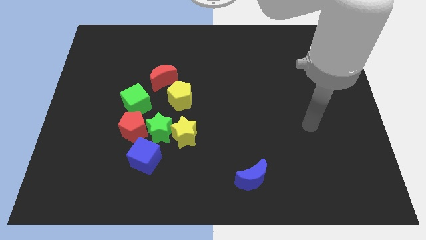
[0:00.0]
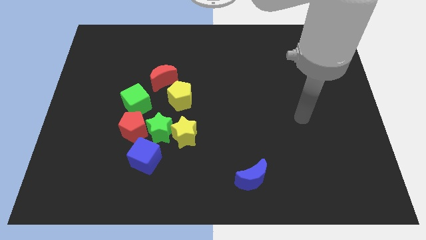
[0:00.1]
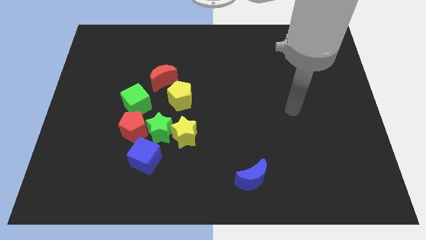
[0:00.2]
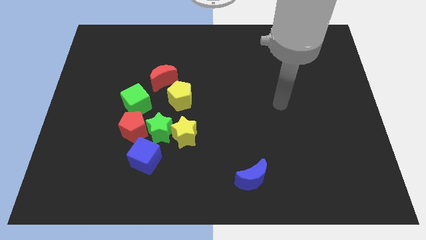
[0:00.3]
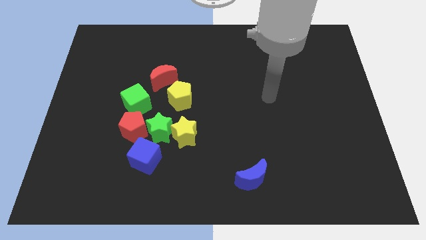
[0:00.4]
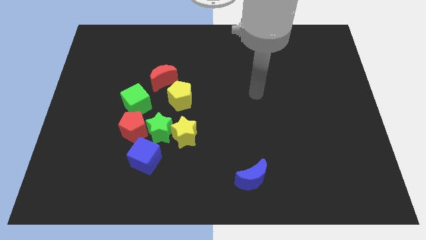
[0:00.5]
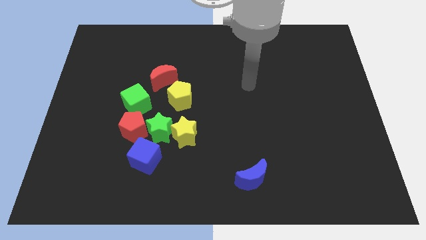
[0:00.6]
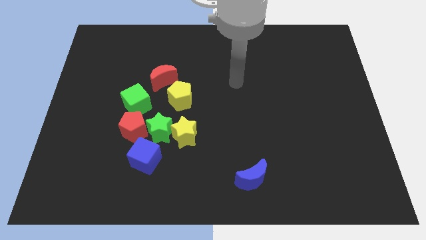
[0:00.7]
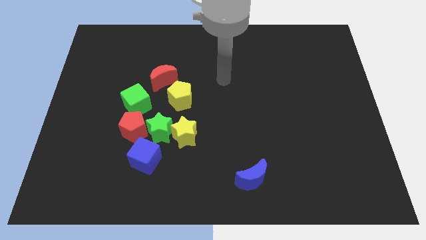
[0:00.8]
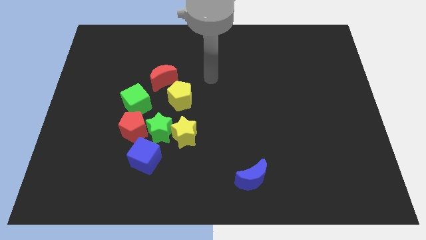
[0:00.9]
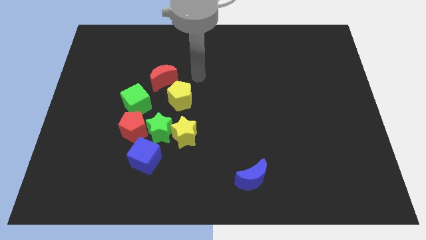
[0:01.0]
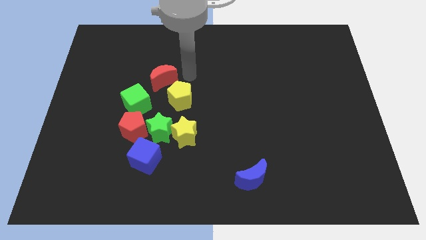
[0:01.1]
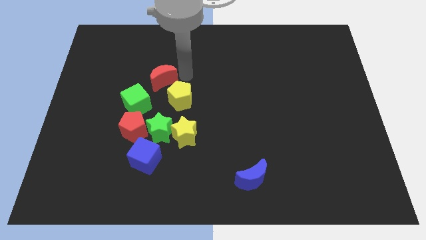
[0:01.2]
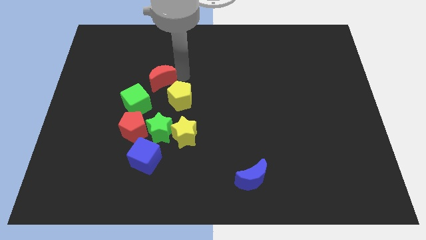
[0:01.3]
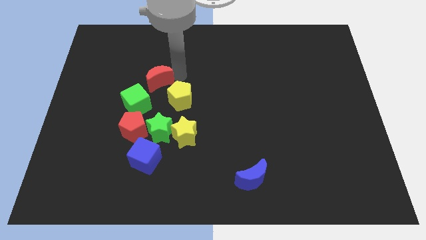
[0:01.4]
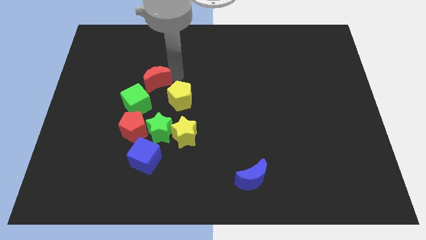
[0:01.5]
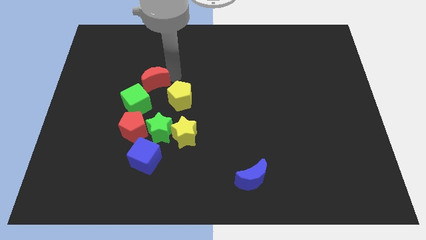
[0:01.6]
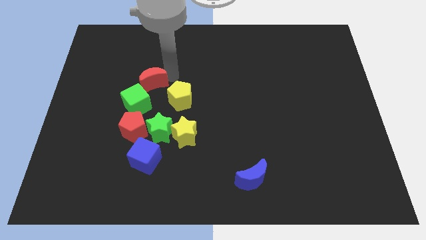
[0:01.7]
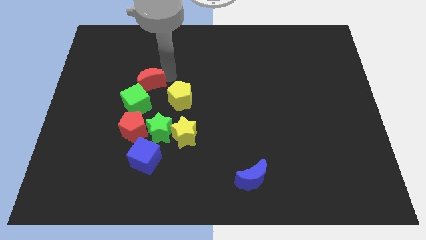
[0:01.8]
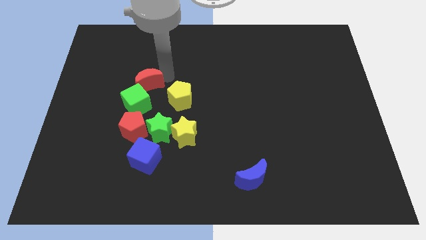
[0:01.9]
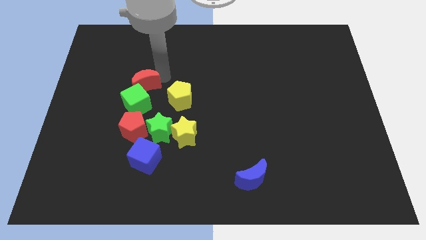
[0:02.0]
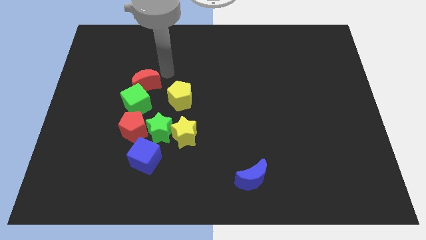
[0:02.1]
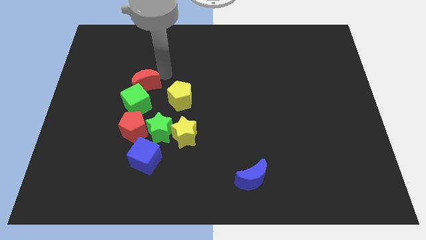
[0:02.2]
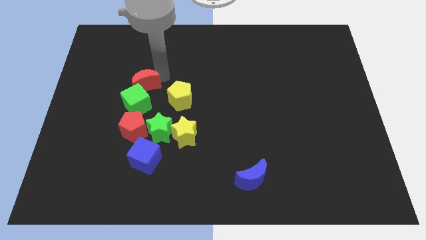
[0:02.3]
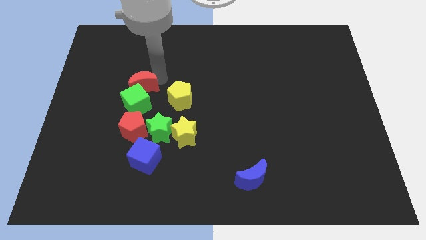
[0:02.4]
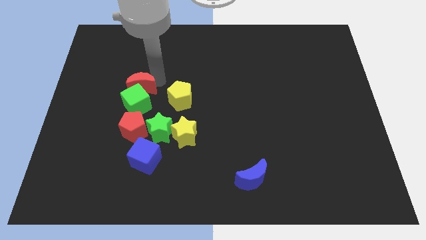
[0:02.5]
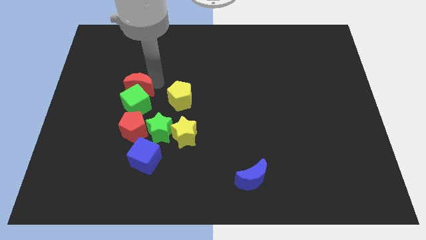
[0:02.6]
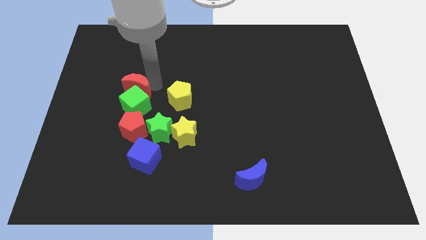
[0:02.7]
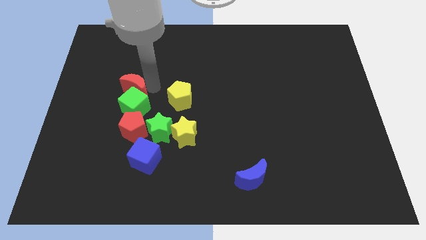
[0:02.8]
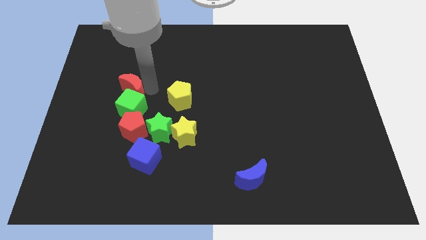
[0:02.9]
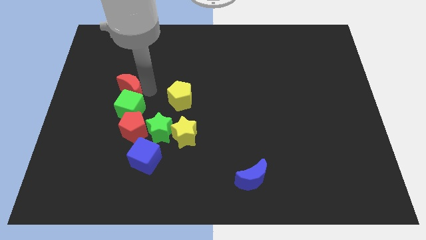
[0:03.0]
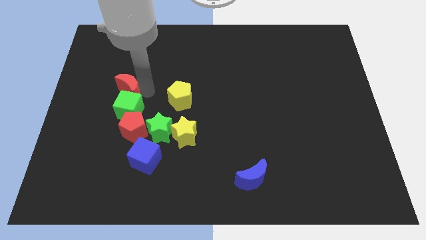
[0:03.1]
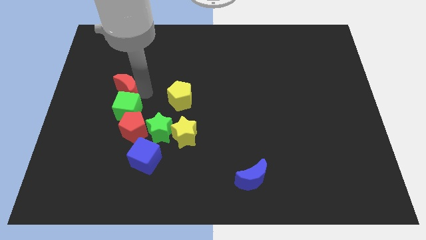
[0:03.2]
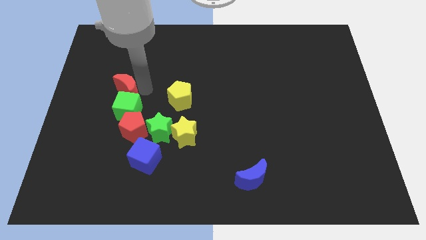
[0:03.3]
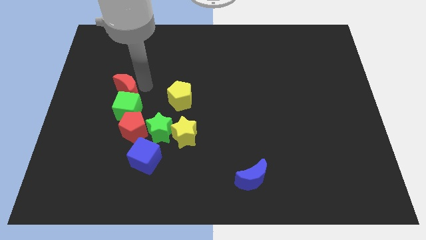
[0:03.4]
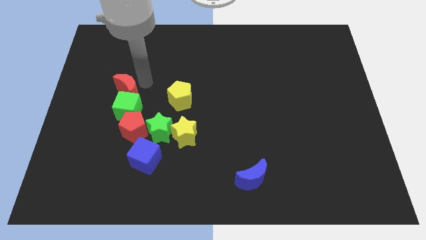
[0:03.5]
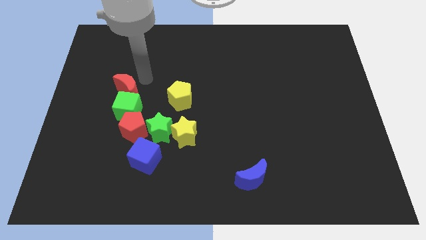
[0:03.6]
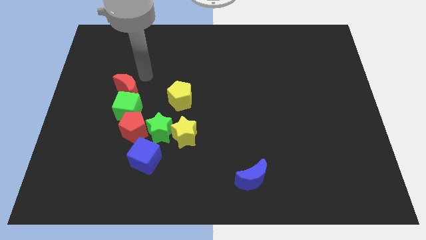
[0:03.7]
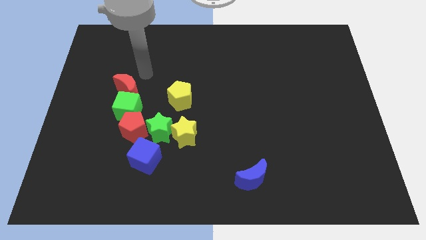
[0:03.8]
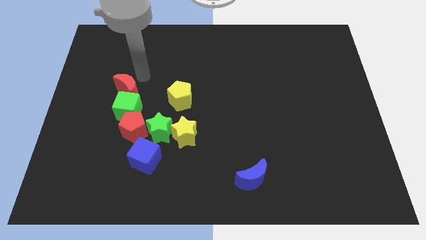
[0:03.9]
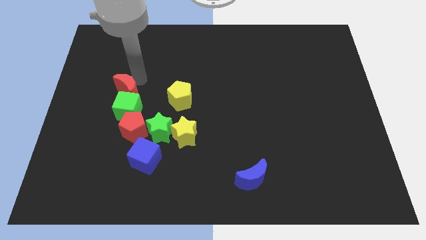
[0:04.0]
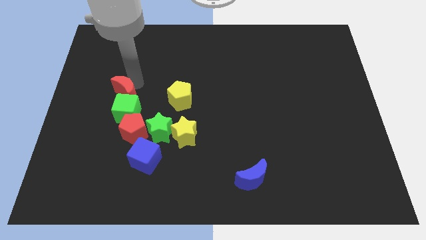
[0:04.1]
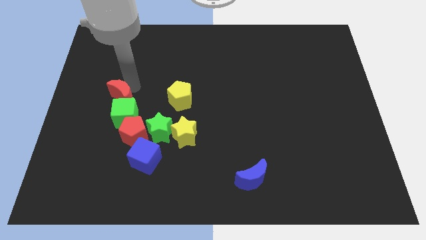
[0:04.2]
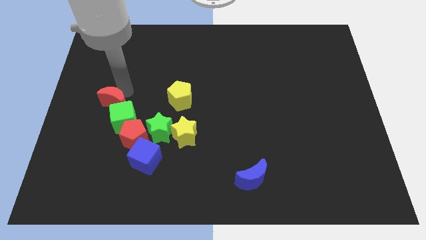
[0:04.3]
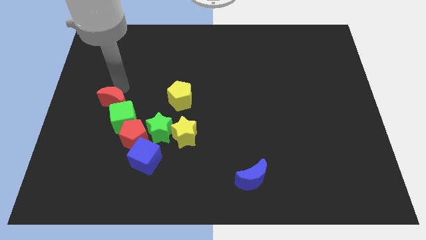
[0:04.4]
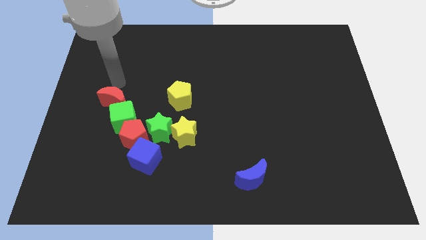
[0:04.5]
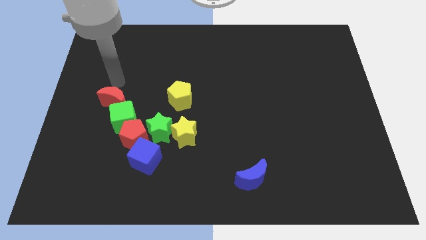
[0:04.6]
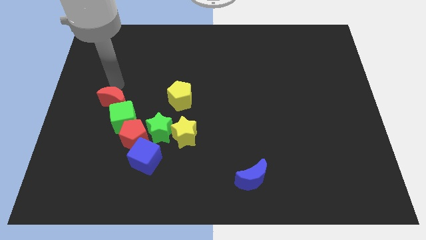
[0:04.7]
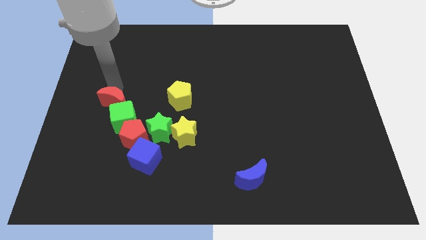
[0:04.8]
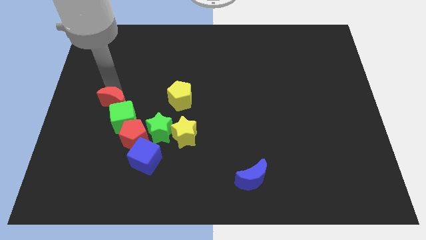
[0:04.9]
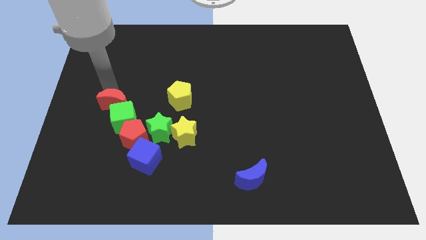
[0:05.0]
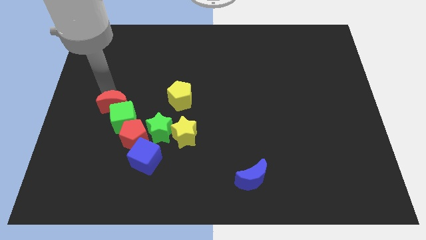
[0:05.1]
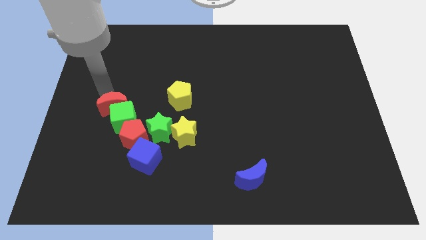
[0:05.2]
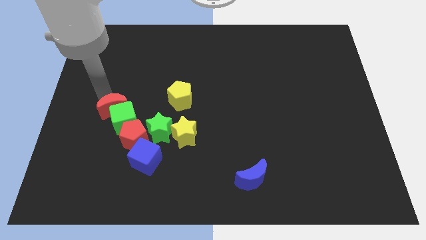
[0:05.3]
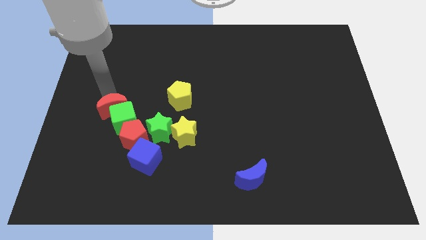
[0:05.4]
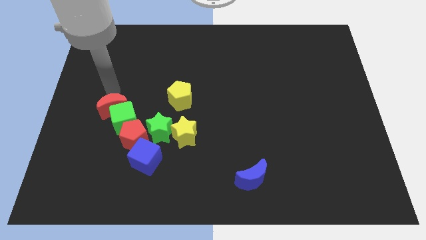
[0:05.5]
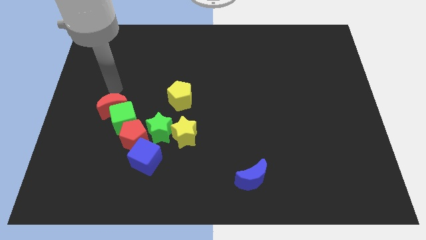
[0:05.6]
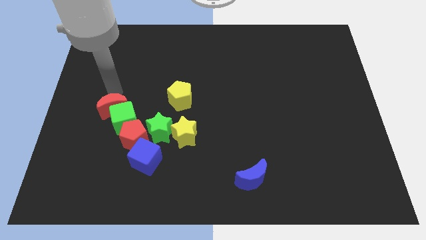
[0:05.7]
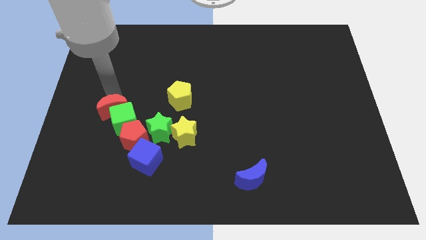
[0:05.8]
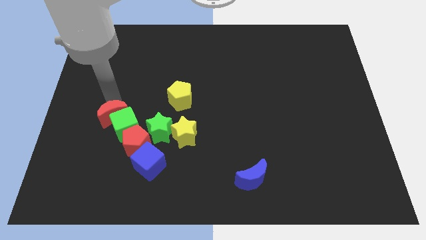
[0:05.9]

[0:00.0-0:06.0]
slide the red moon left of the green star

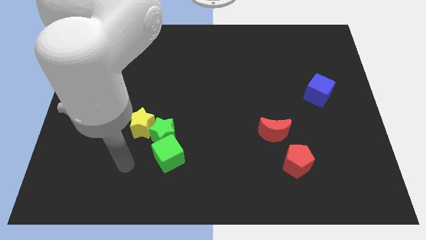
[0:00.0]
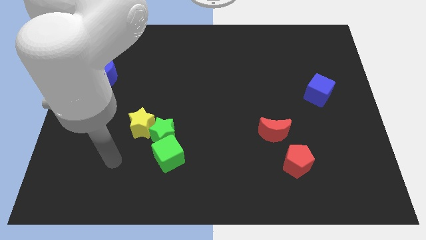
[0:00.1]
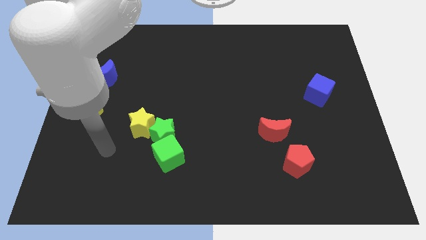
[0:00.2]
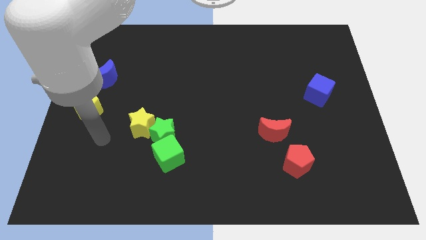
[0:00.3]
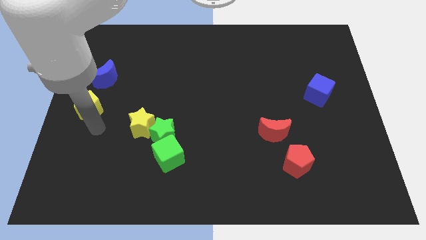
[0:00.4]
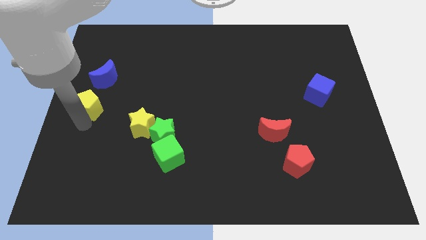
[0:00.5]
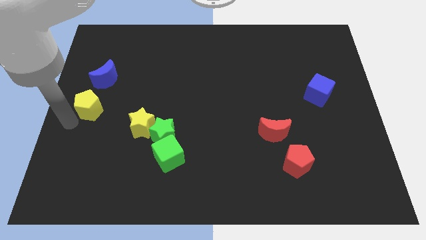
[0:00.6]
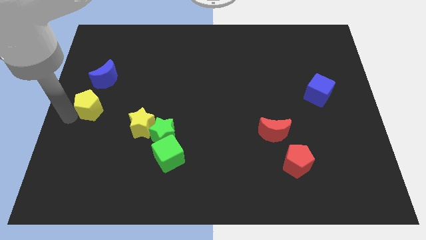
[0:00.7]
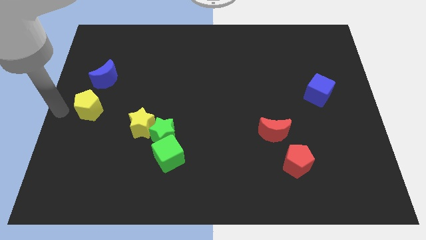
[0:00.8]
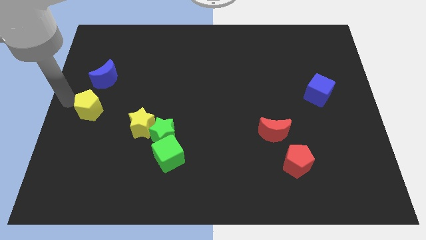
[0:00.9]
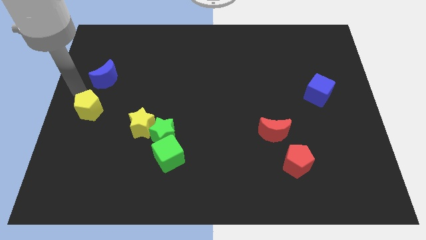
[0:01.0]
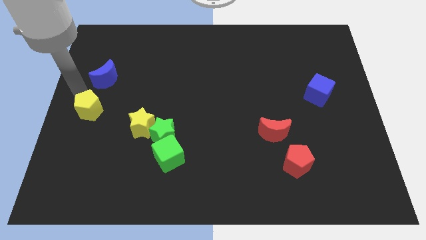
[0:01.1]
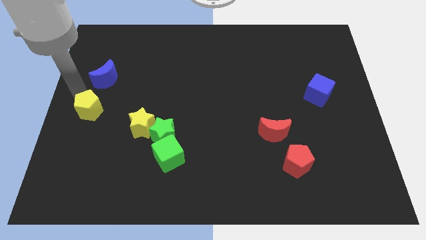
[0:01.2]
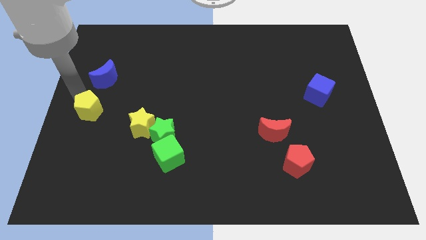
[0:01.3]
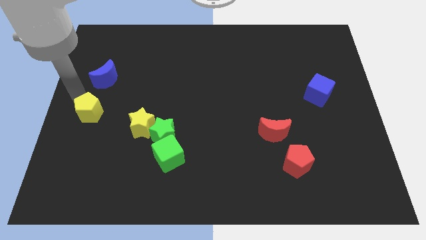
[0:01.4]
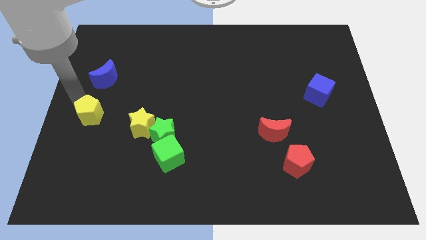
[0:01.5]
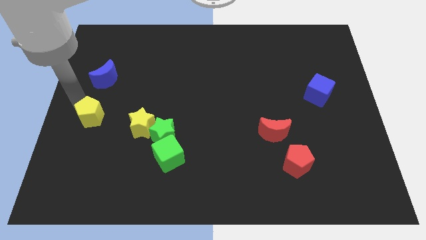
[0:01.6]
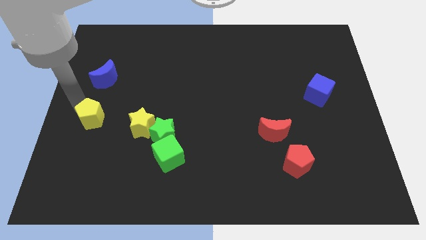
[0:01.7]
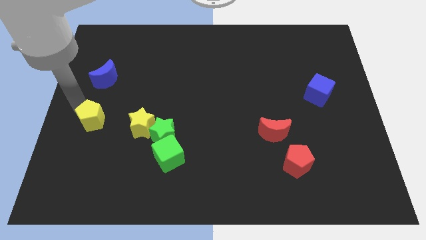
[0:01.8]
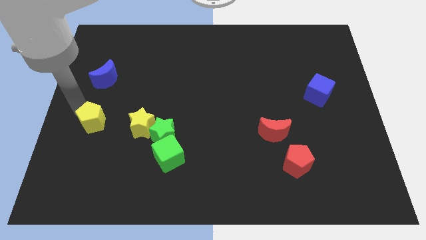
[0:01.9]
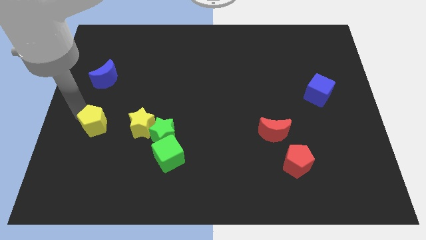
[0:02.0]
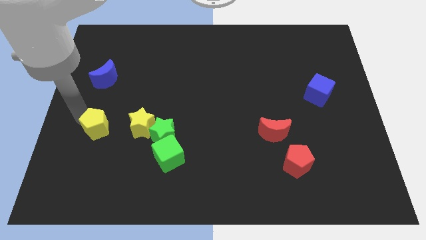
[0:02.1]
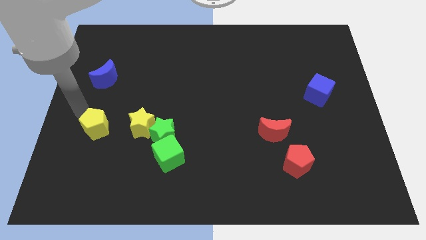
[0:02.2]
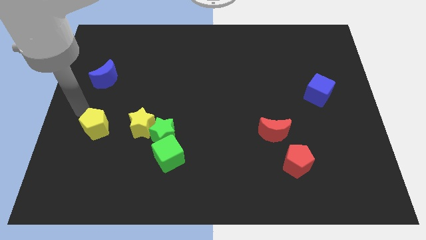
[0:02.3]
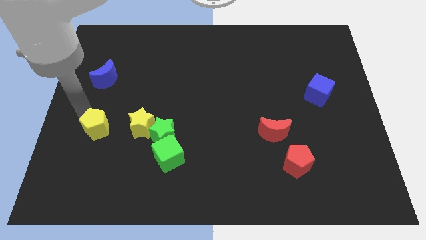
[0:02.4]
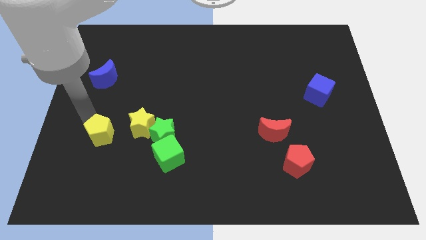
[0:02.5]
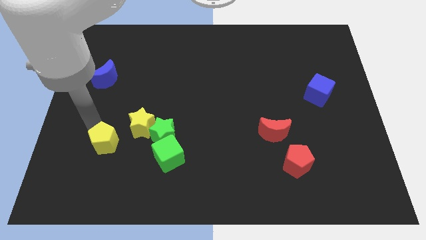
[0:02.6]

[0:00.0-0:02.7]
push the yellow pentagon just left of the green cube
